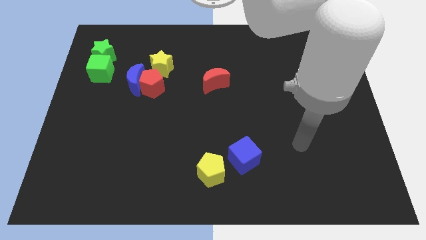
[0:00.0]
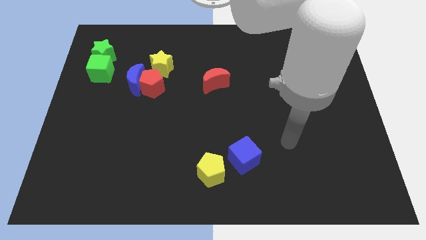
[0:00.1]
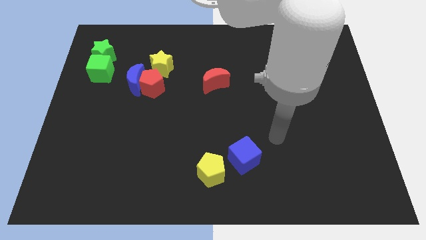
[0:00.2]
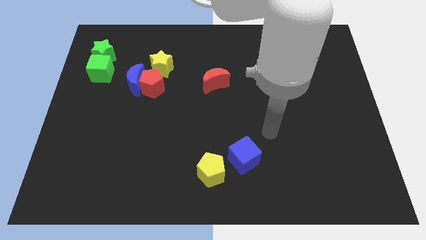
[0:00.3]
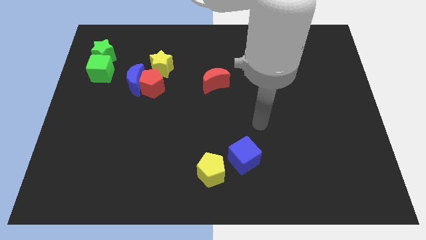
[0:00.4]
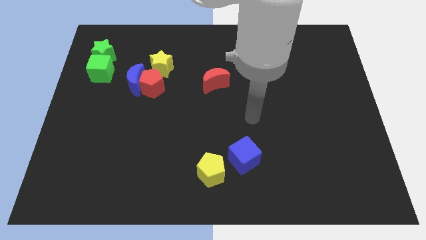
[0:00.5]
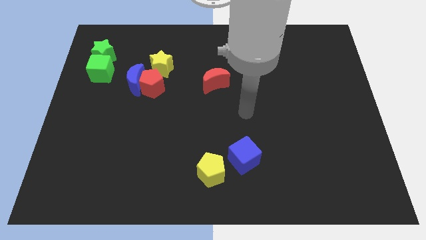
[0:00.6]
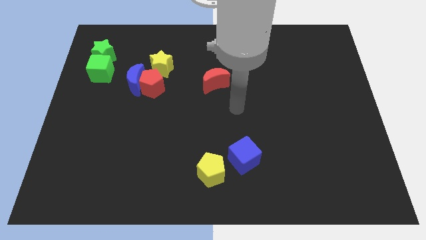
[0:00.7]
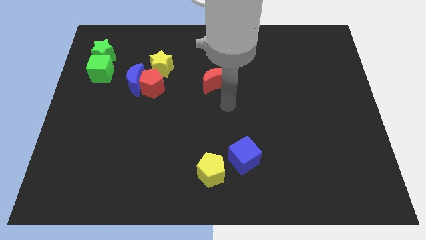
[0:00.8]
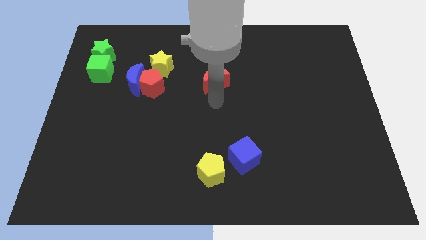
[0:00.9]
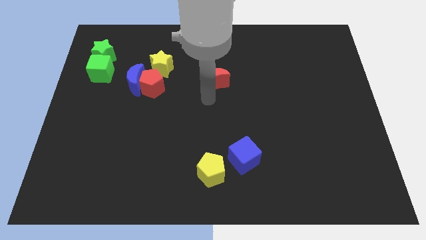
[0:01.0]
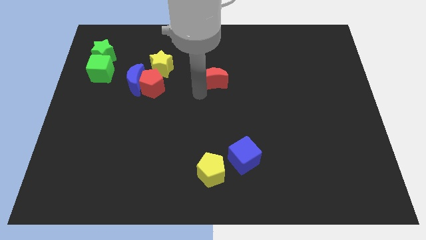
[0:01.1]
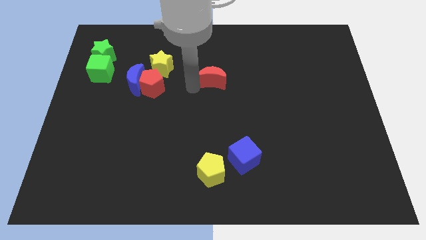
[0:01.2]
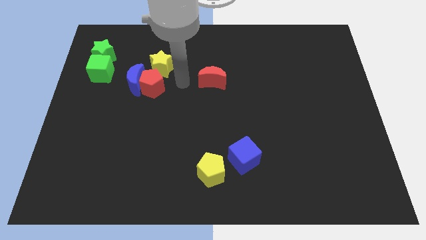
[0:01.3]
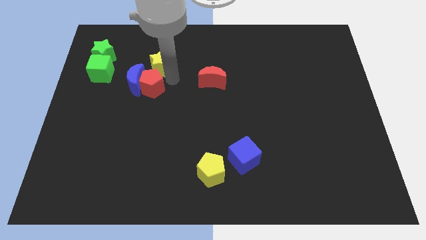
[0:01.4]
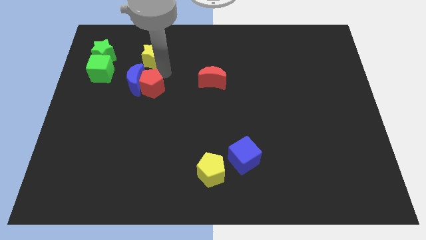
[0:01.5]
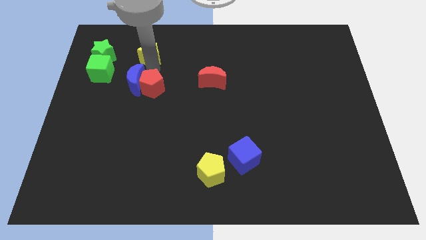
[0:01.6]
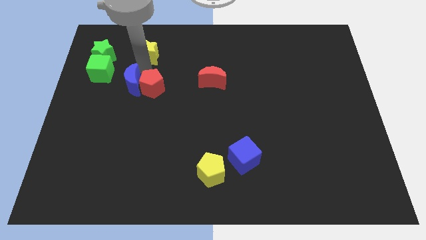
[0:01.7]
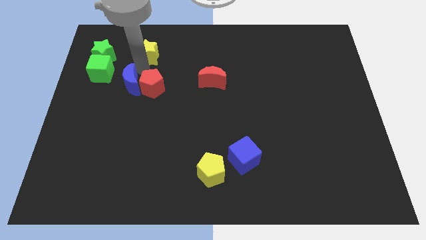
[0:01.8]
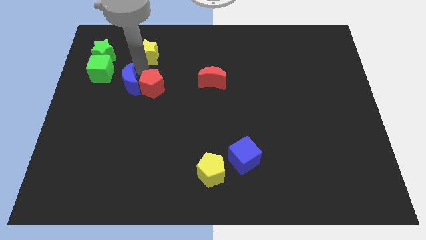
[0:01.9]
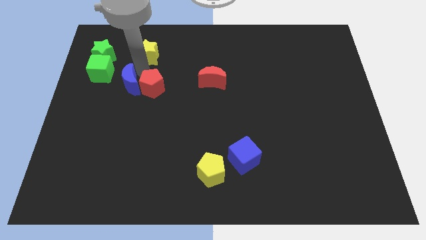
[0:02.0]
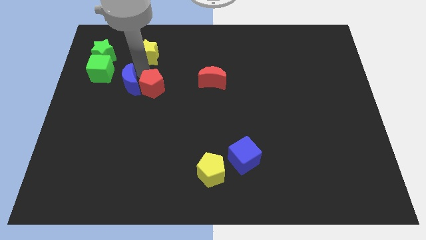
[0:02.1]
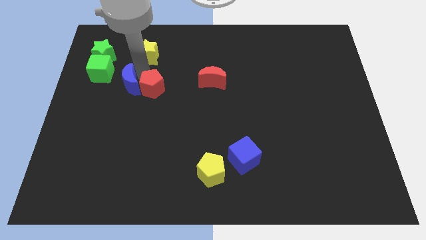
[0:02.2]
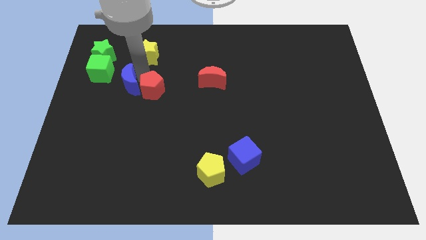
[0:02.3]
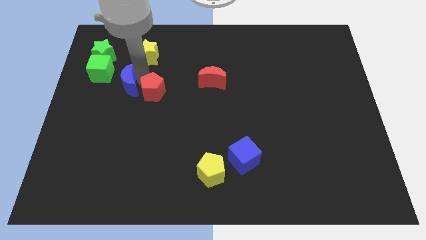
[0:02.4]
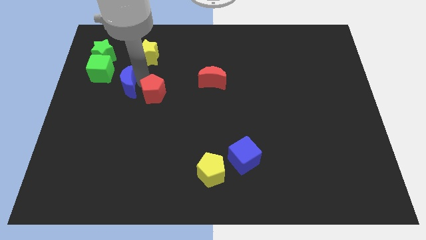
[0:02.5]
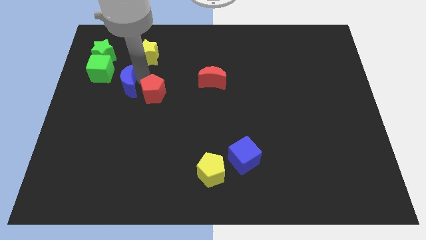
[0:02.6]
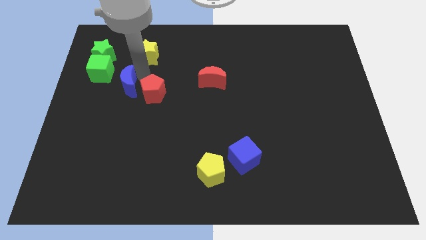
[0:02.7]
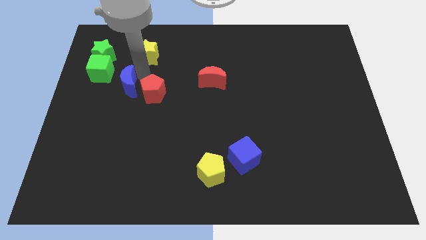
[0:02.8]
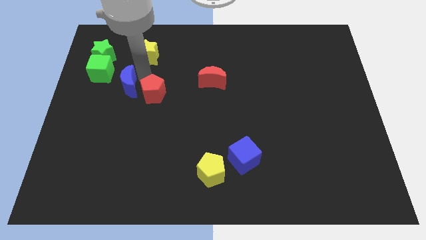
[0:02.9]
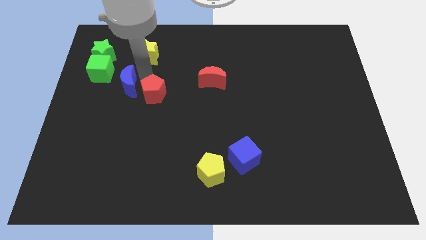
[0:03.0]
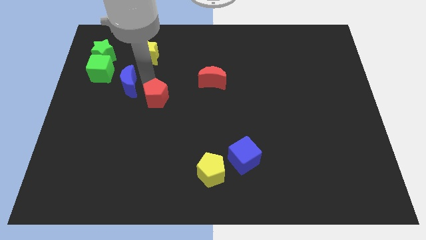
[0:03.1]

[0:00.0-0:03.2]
separate the red pentagon from the blue moon and yellow star

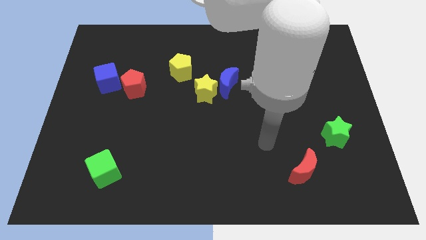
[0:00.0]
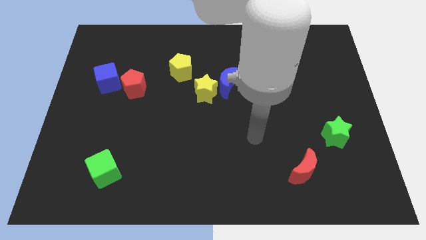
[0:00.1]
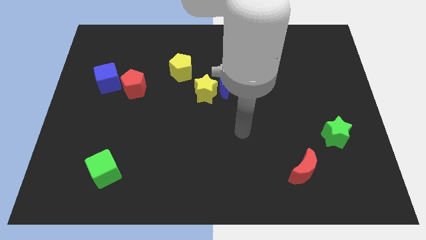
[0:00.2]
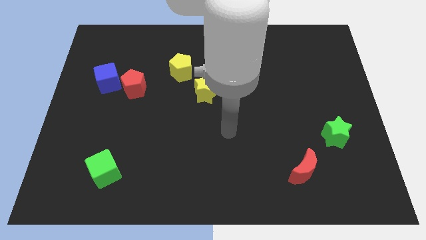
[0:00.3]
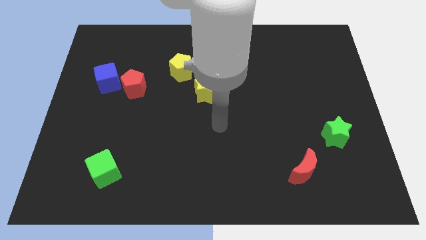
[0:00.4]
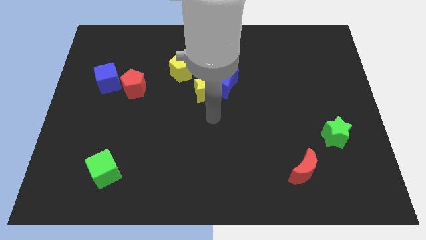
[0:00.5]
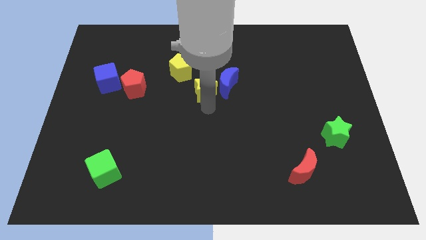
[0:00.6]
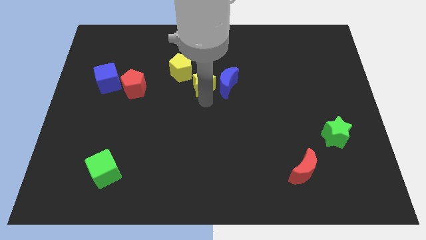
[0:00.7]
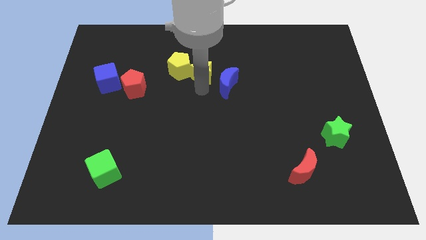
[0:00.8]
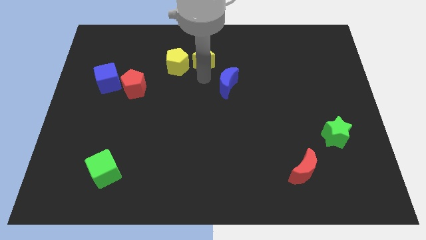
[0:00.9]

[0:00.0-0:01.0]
separate the blue moon from the yellow star

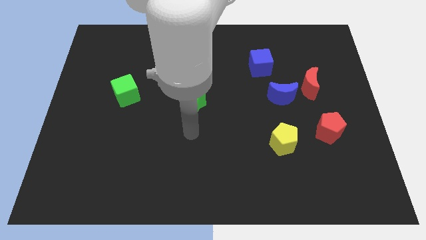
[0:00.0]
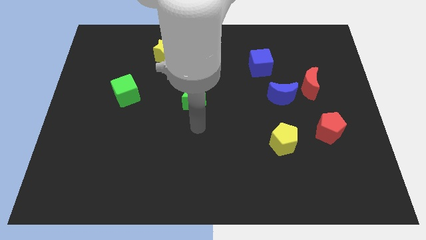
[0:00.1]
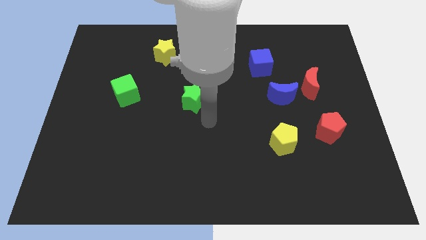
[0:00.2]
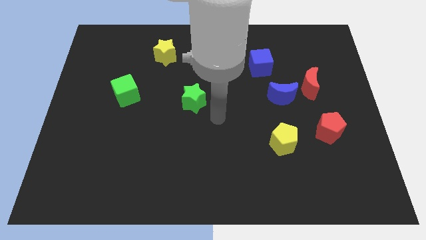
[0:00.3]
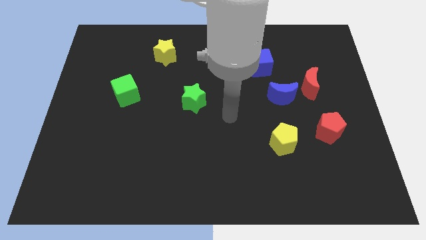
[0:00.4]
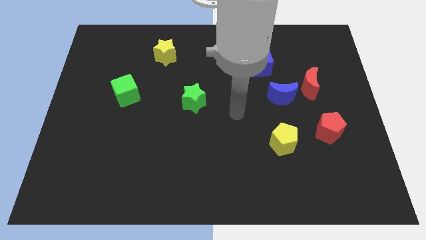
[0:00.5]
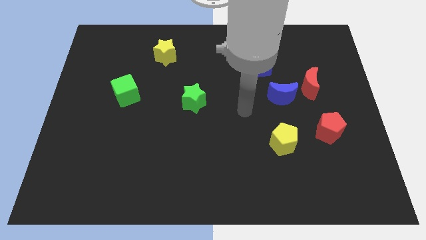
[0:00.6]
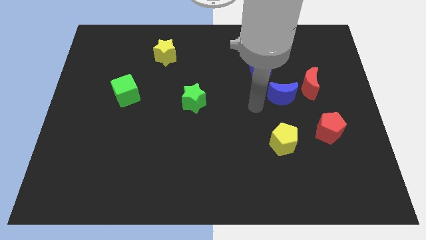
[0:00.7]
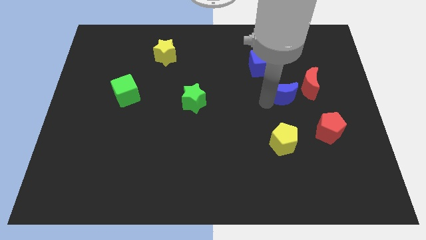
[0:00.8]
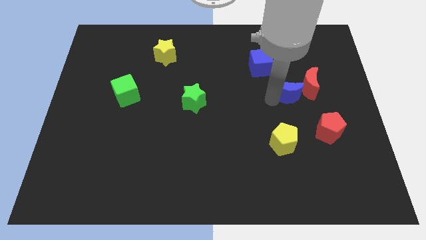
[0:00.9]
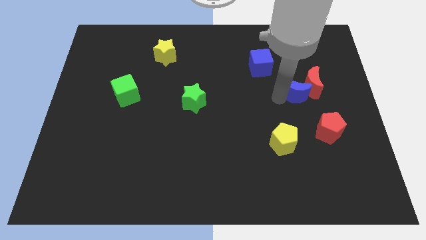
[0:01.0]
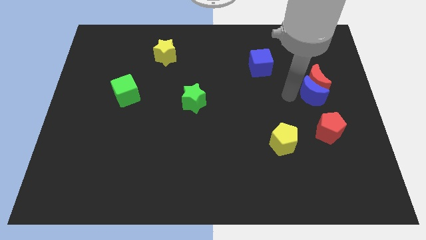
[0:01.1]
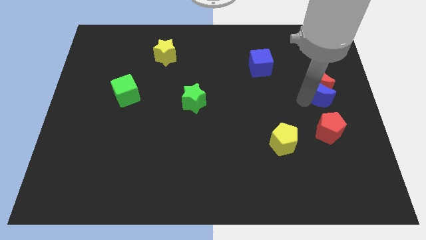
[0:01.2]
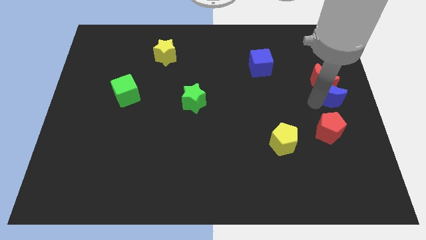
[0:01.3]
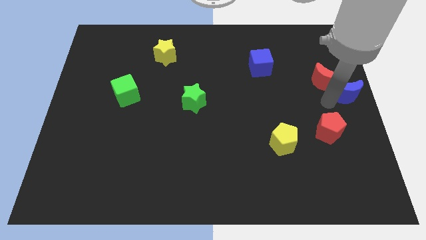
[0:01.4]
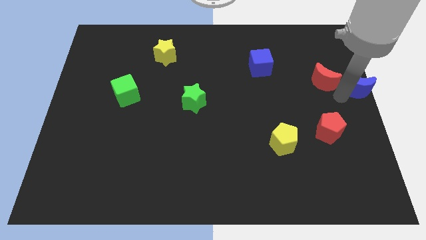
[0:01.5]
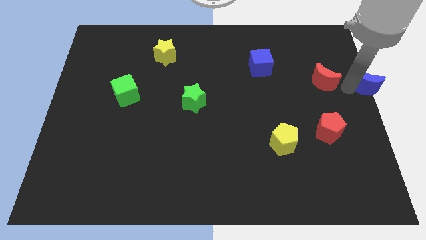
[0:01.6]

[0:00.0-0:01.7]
separate the red moon from the blue moon

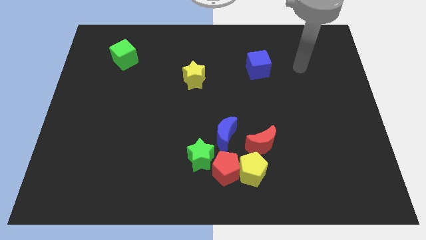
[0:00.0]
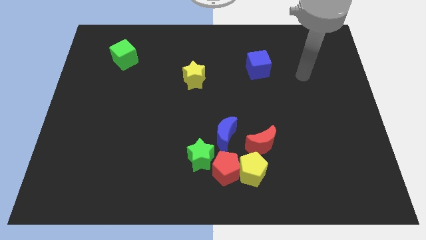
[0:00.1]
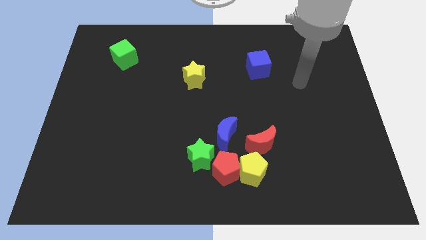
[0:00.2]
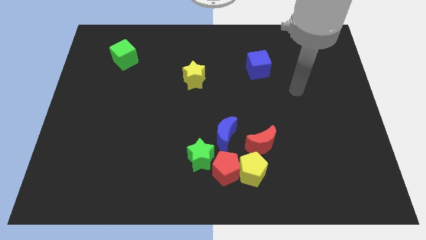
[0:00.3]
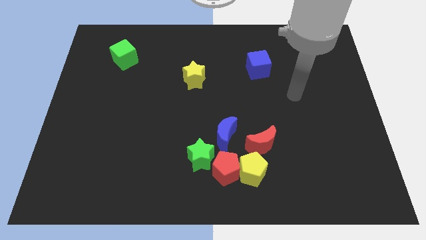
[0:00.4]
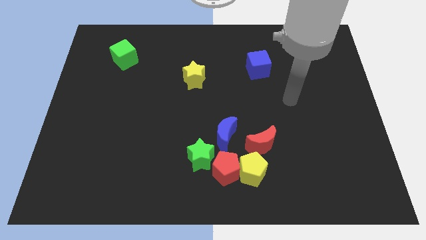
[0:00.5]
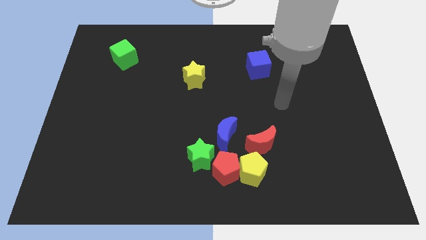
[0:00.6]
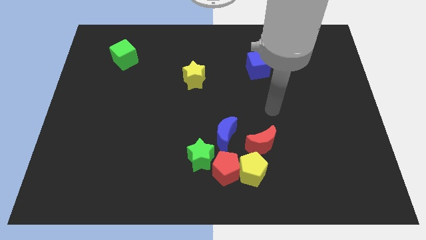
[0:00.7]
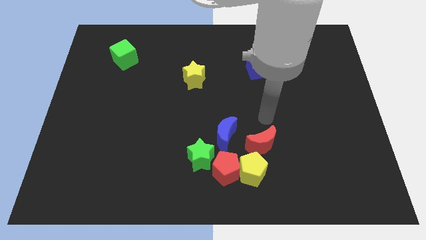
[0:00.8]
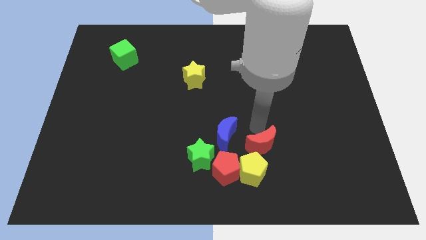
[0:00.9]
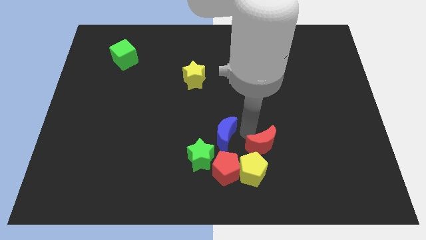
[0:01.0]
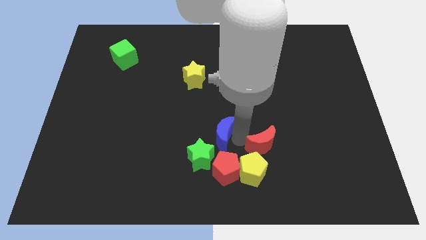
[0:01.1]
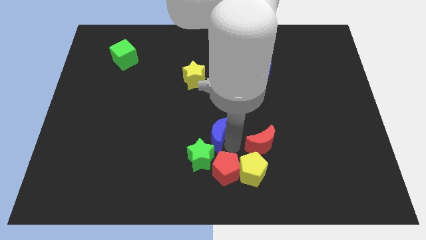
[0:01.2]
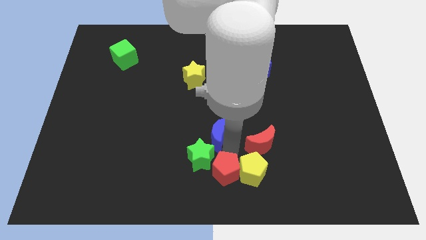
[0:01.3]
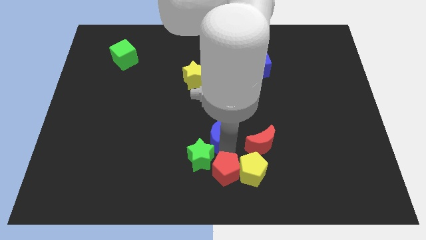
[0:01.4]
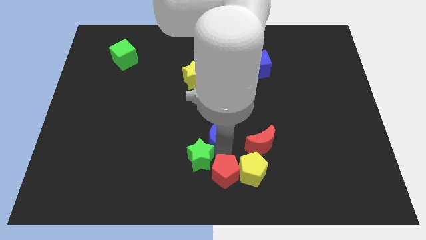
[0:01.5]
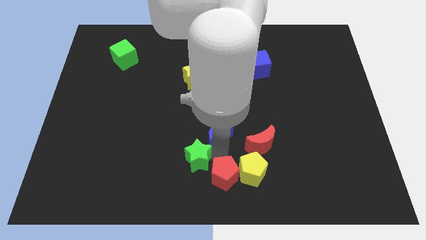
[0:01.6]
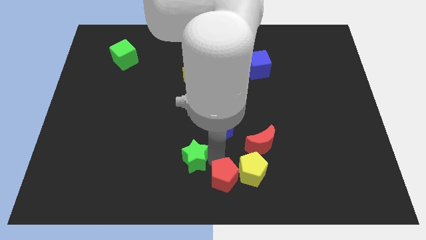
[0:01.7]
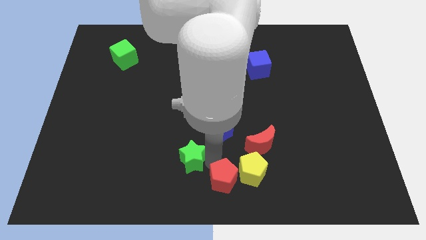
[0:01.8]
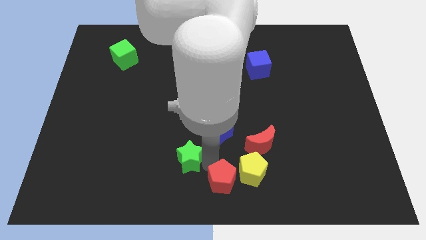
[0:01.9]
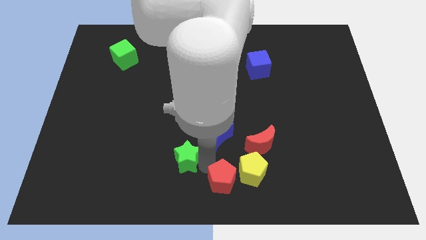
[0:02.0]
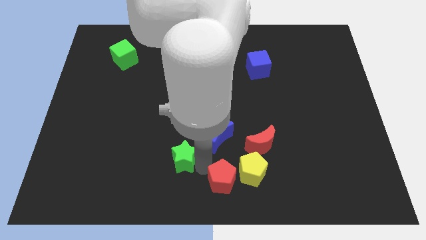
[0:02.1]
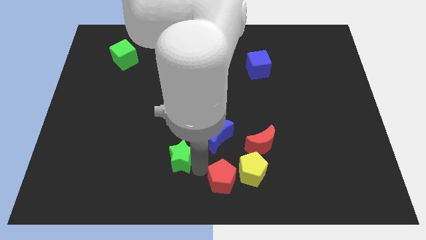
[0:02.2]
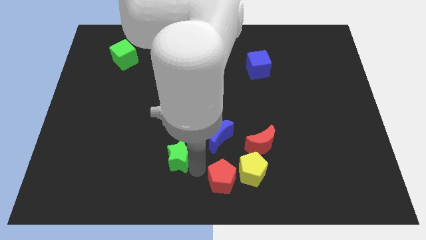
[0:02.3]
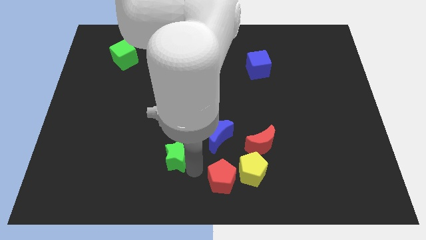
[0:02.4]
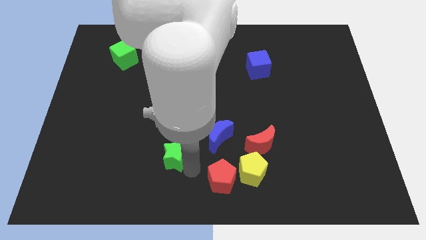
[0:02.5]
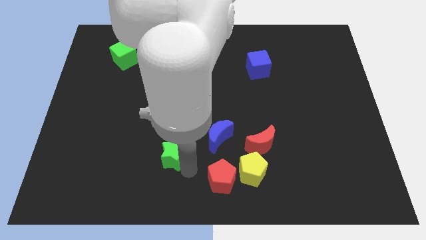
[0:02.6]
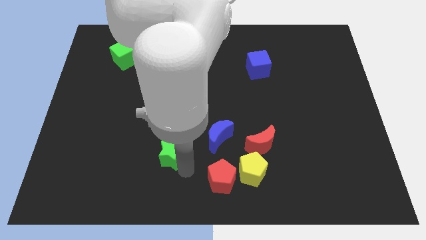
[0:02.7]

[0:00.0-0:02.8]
separate the green star from the red pentagon and blue moon

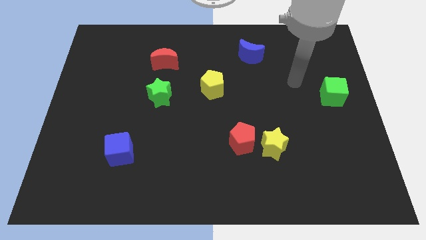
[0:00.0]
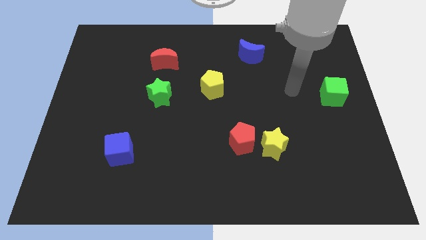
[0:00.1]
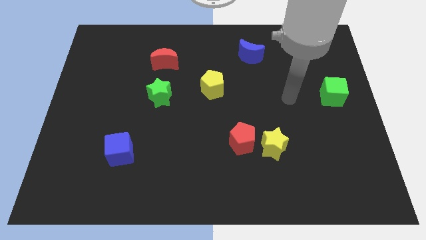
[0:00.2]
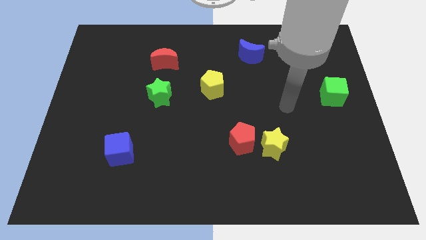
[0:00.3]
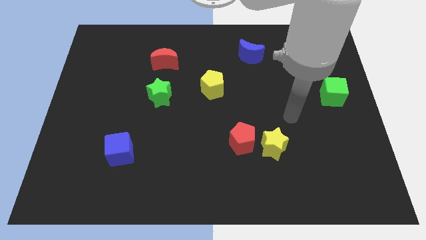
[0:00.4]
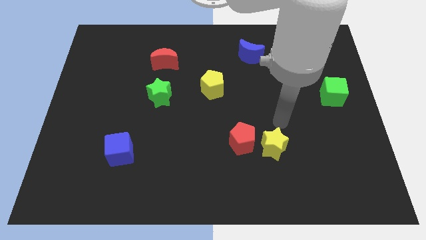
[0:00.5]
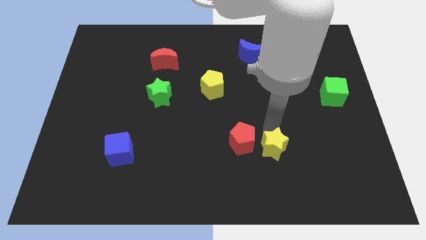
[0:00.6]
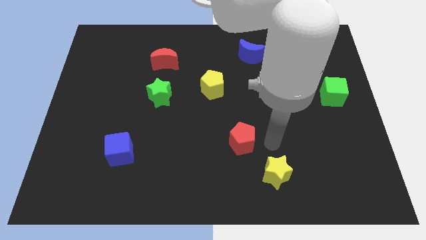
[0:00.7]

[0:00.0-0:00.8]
pull the red pentagon apart from the yellow star
